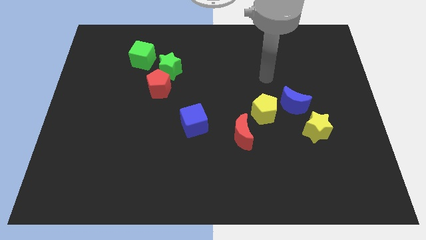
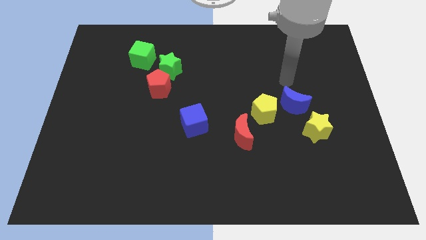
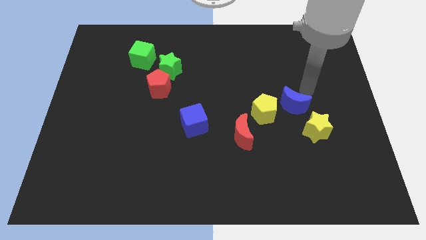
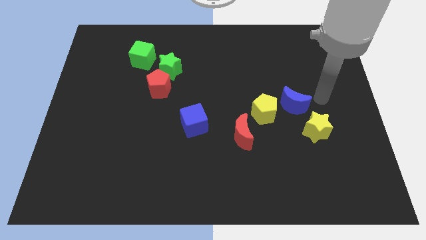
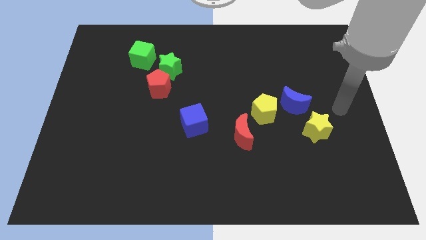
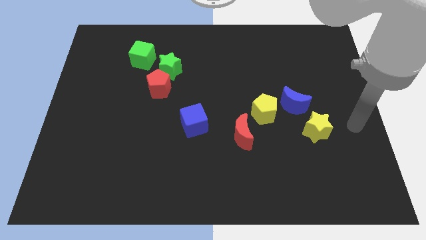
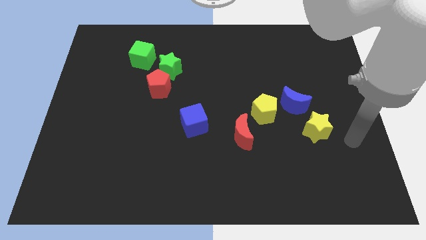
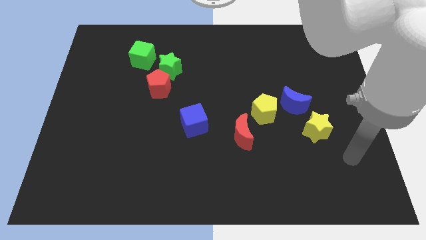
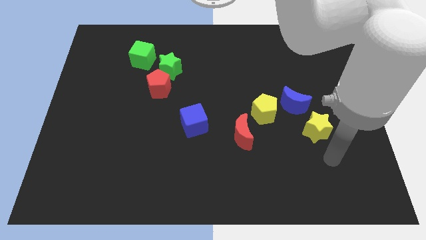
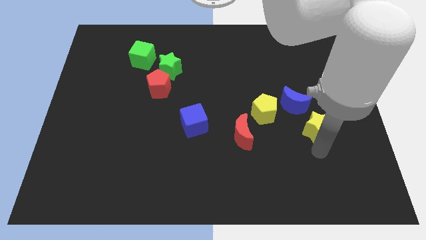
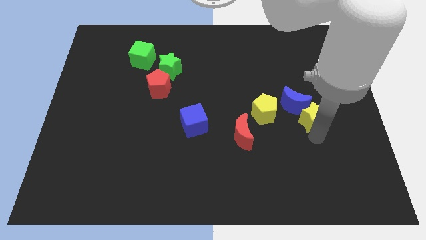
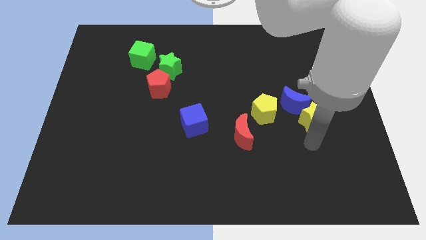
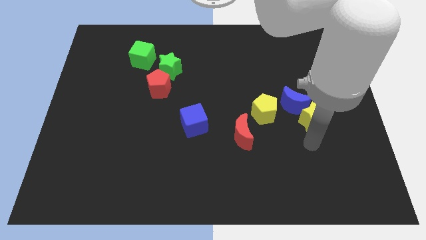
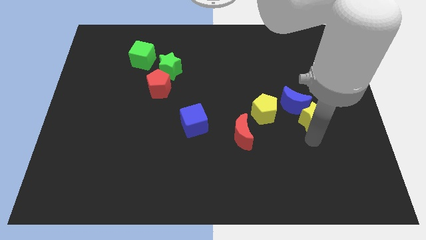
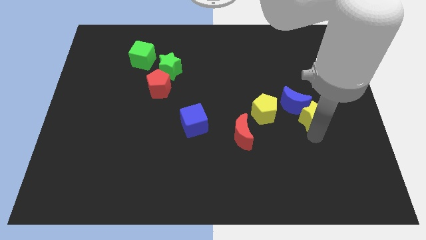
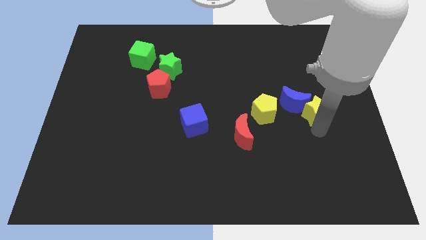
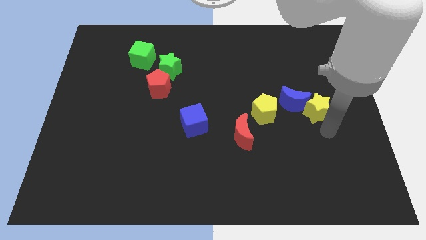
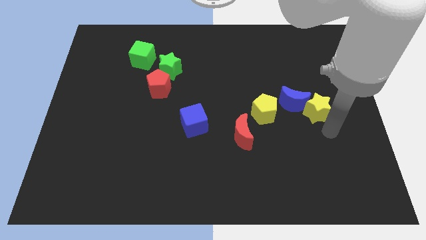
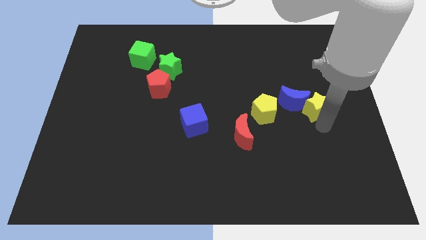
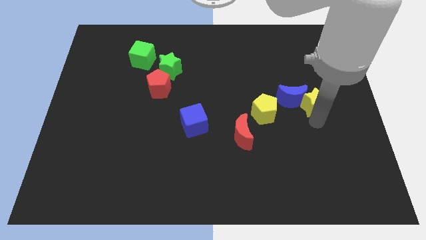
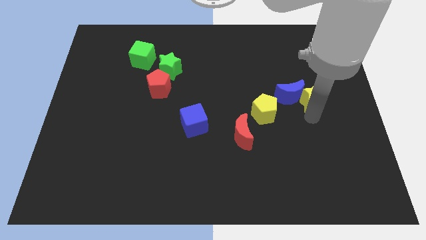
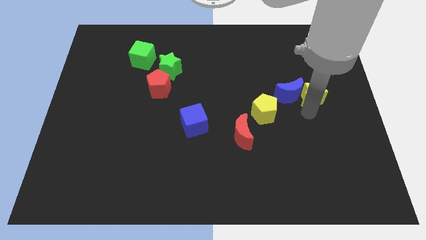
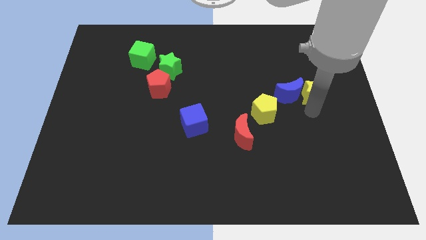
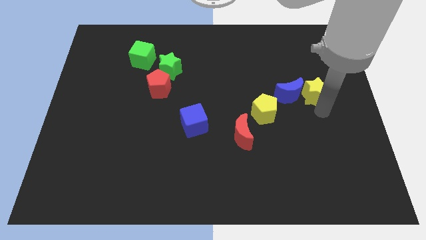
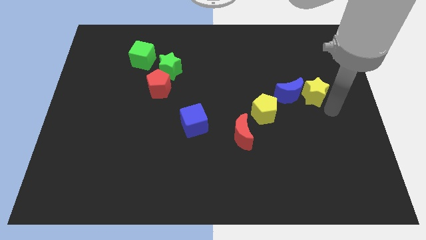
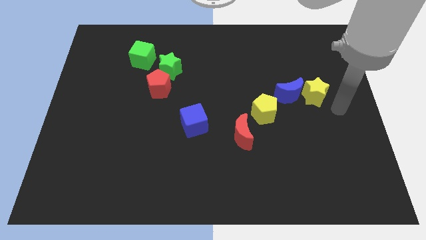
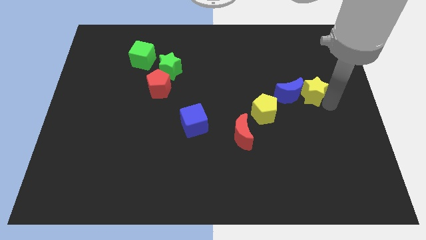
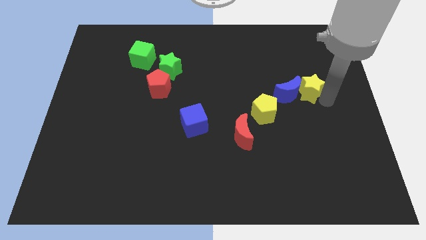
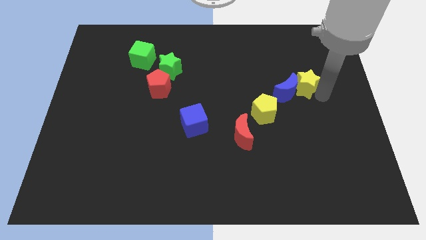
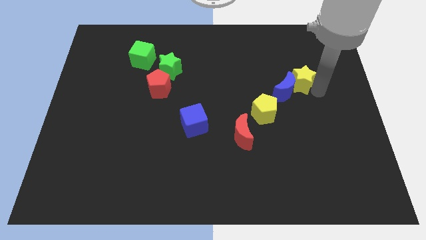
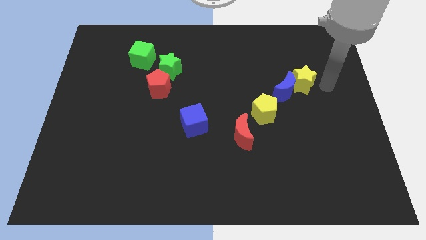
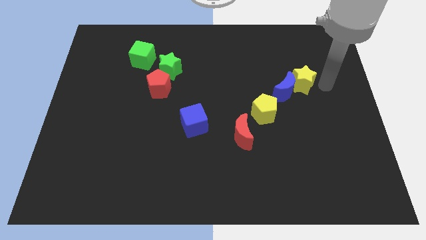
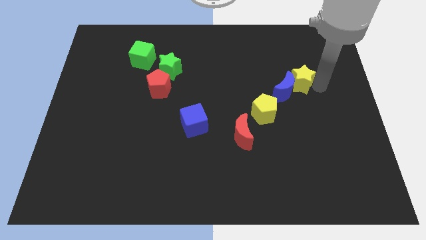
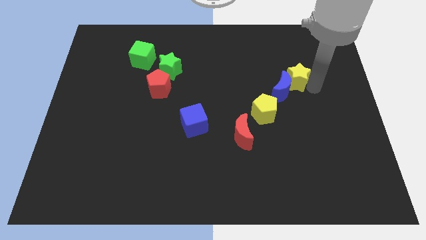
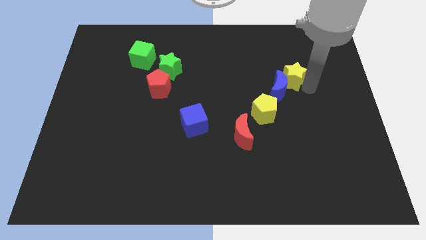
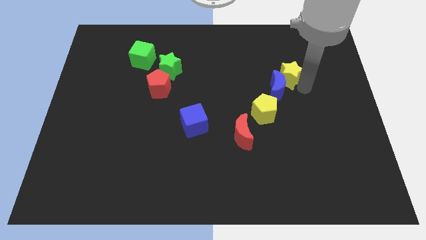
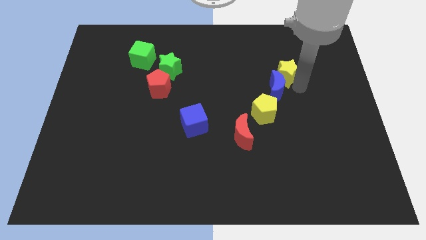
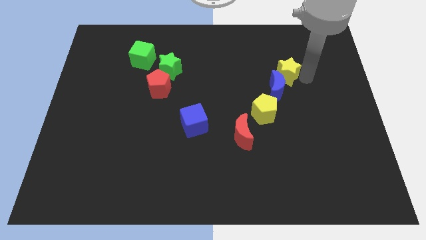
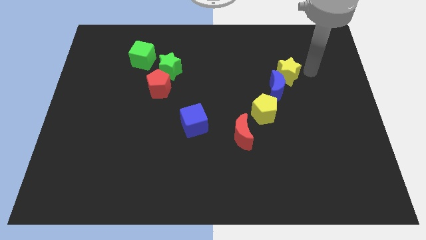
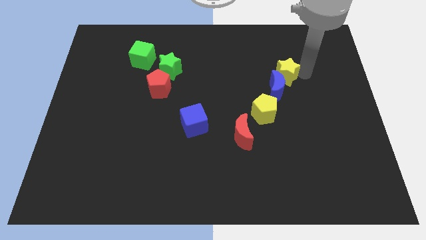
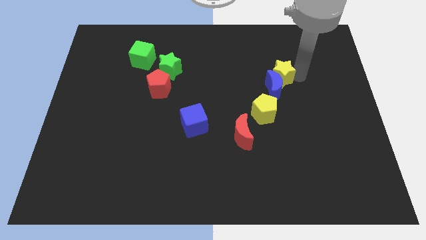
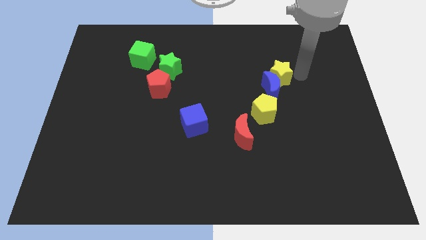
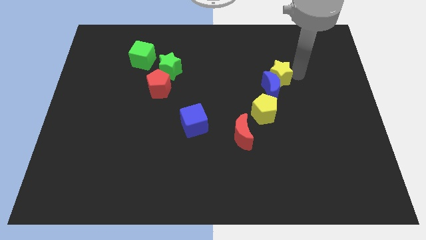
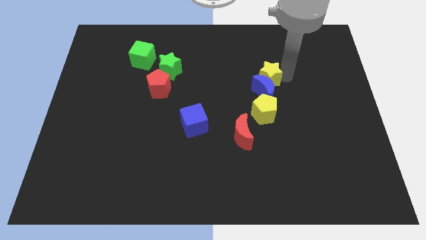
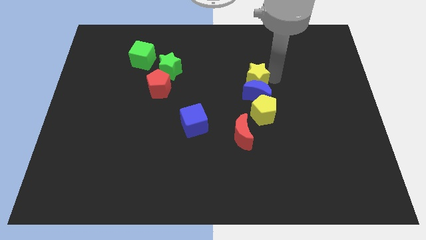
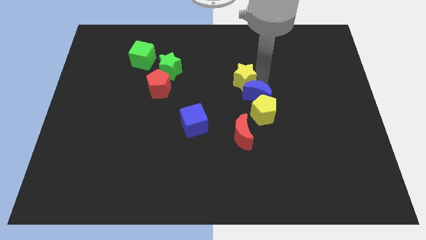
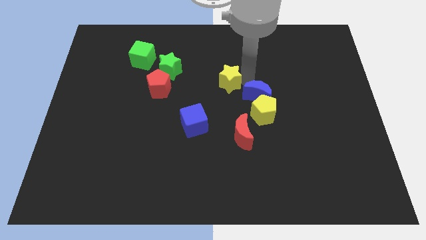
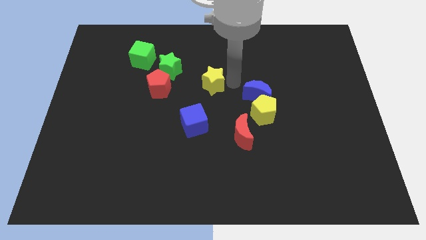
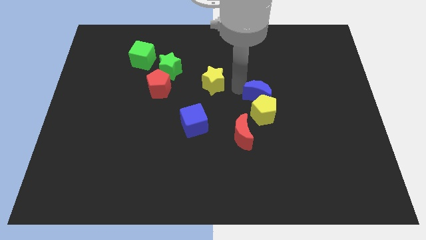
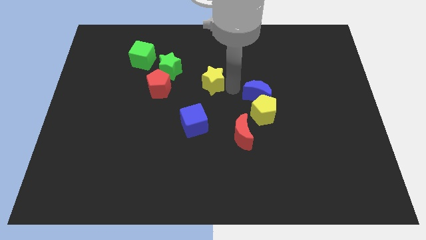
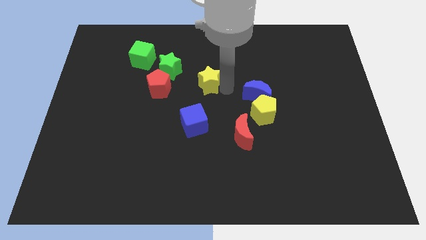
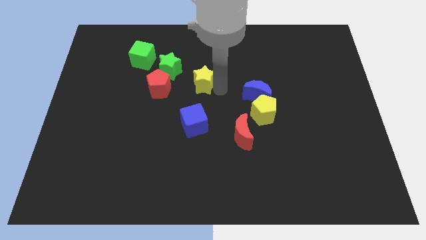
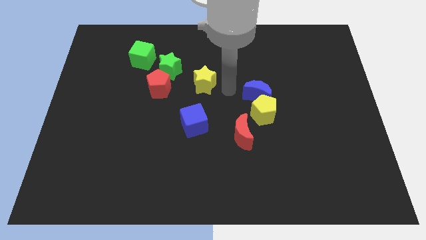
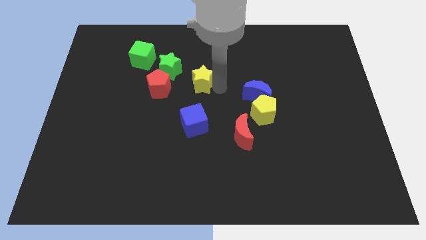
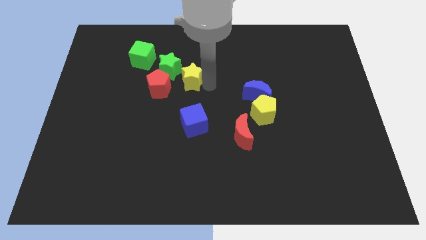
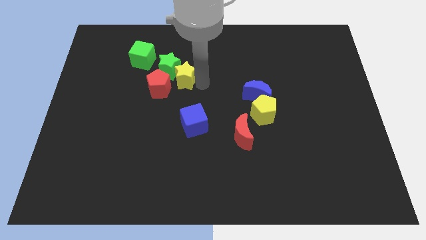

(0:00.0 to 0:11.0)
move the yellow star towards the green star

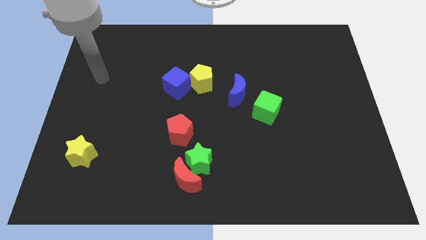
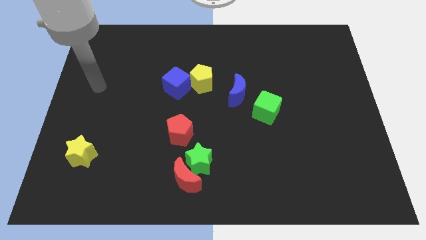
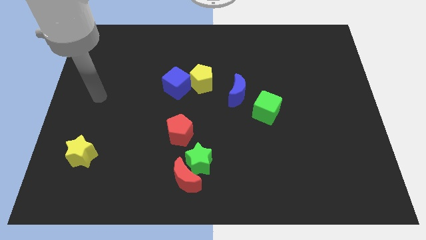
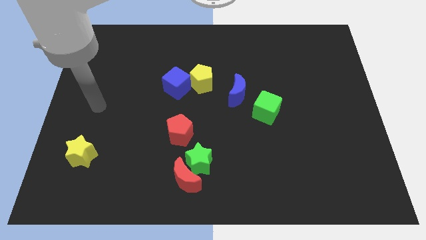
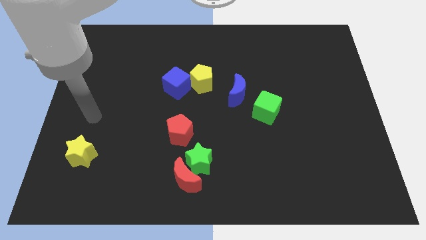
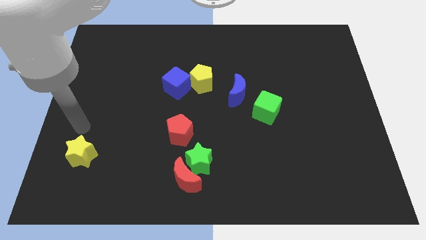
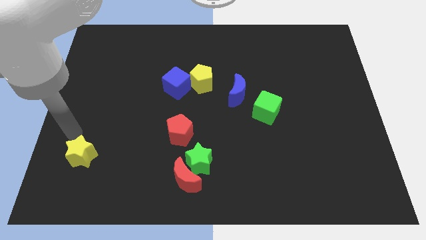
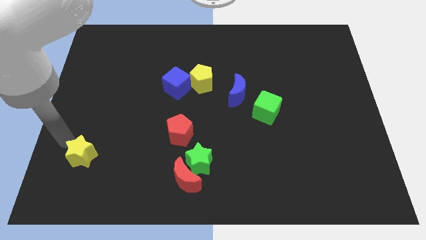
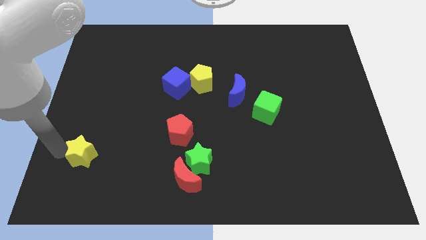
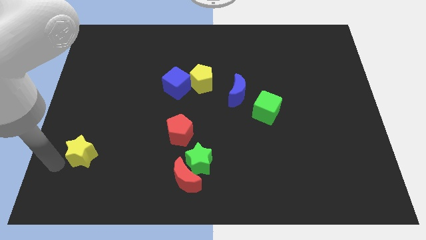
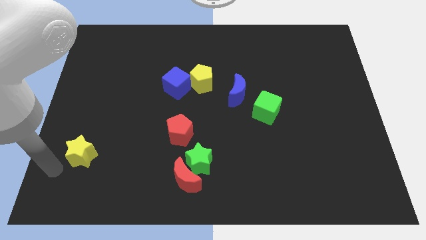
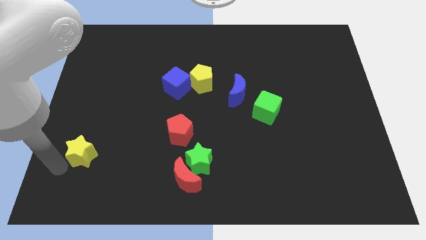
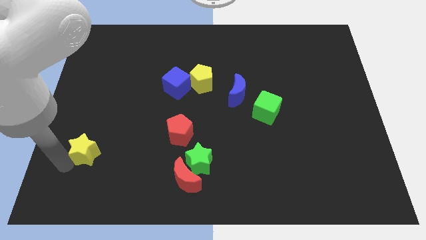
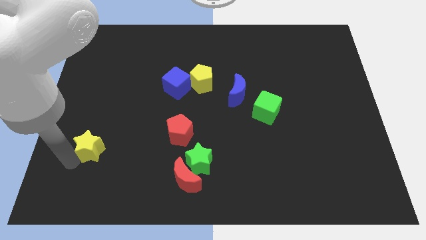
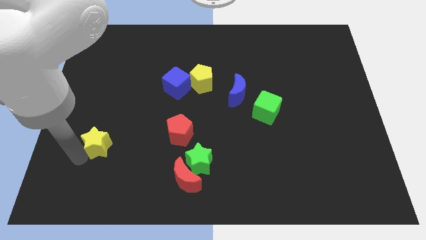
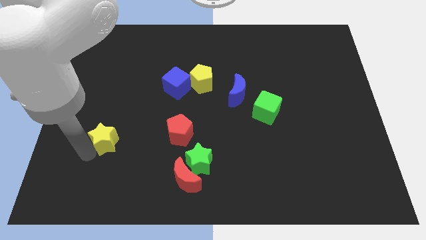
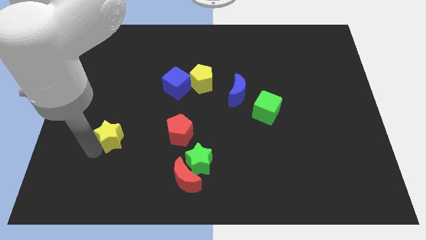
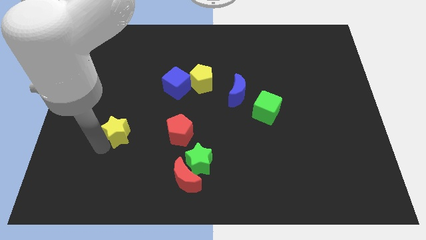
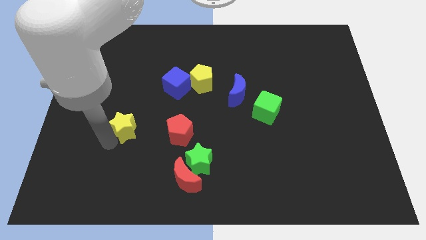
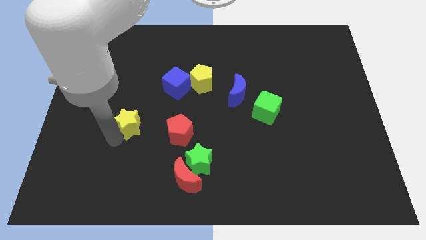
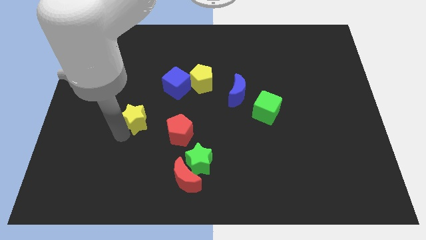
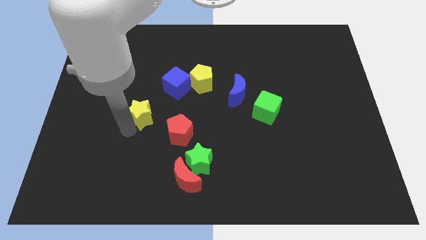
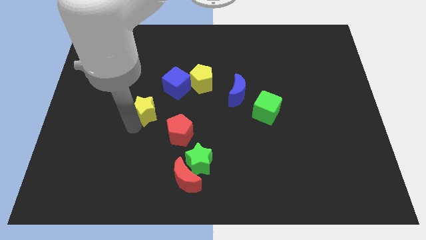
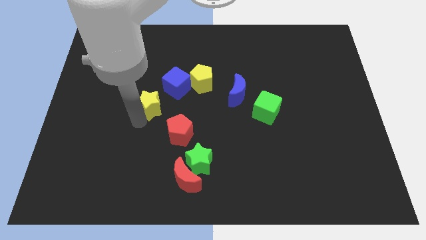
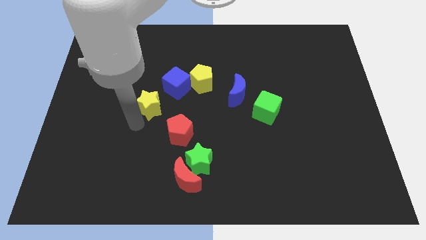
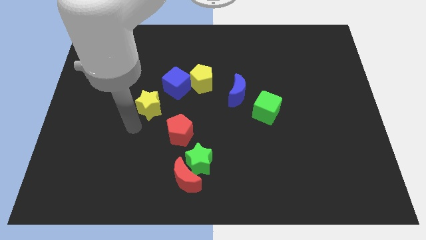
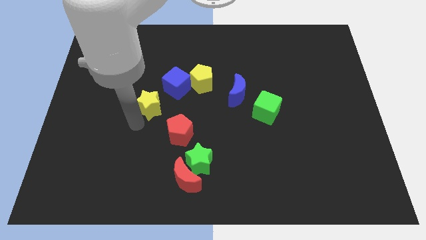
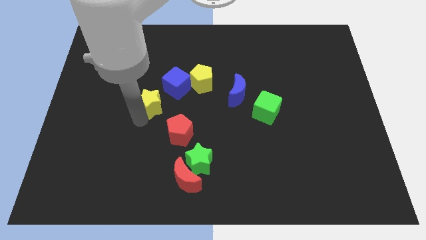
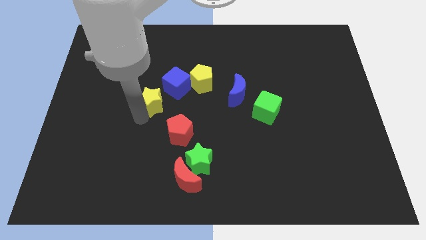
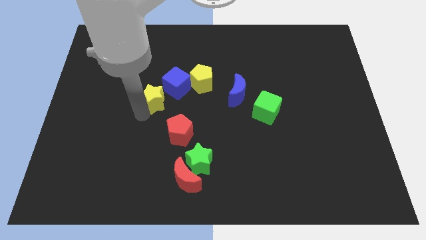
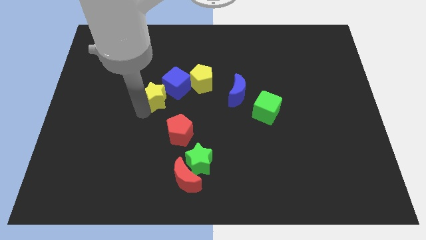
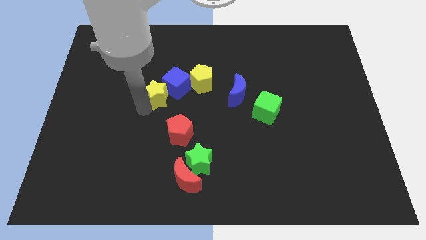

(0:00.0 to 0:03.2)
slide the yellow star towards the blue cube
